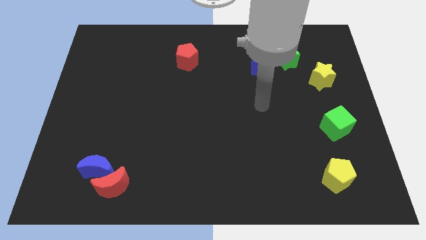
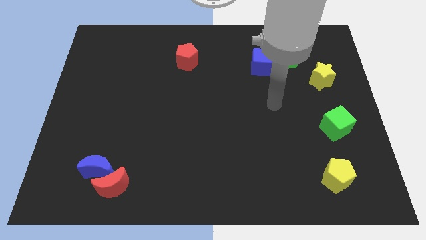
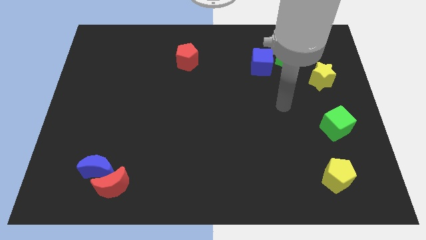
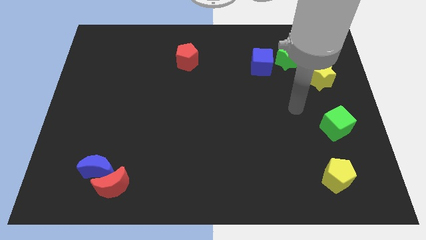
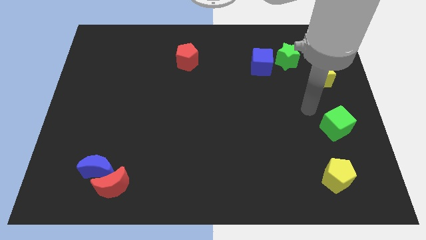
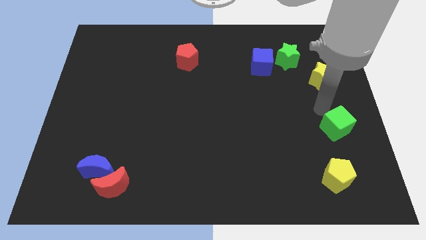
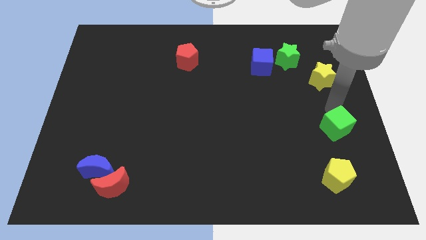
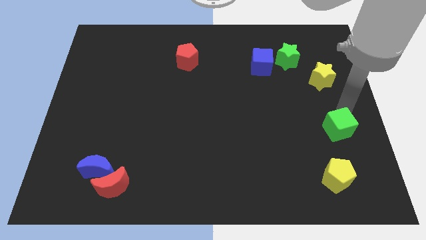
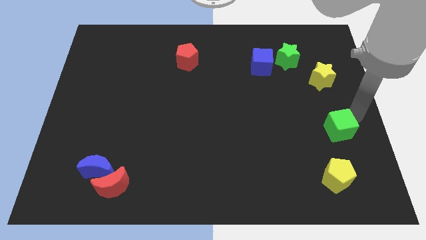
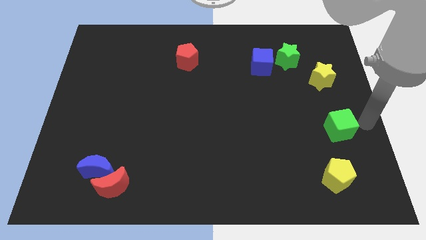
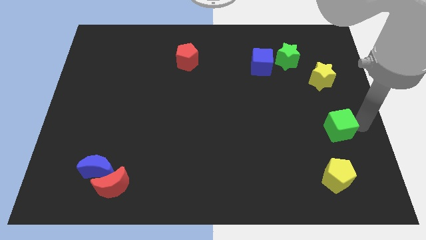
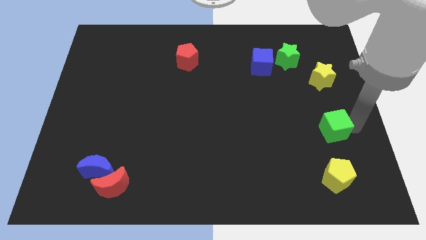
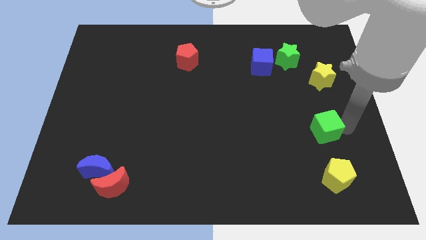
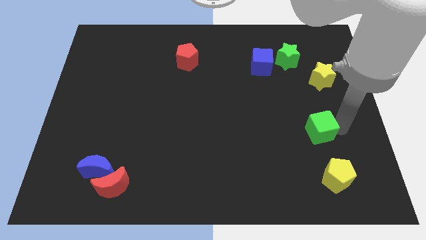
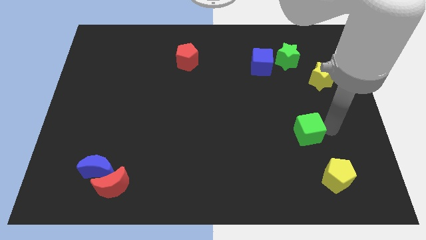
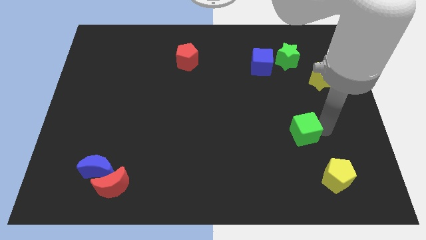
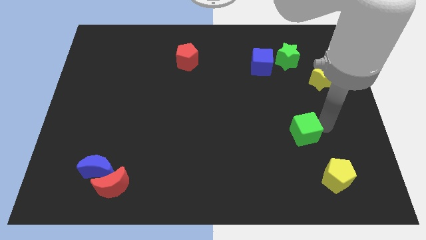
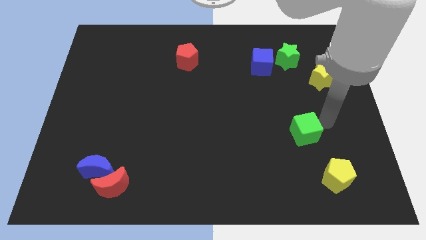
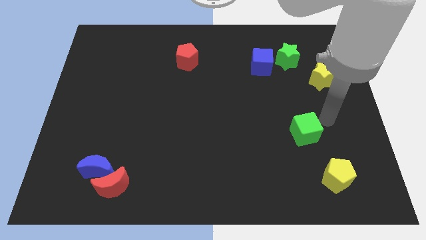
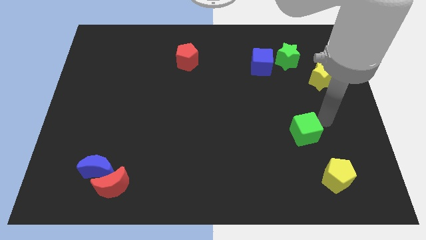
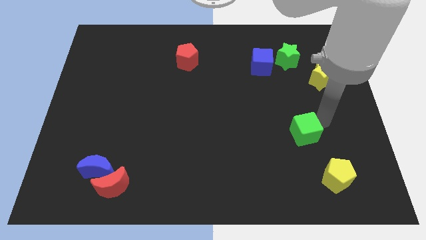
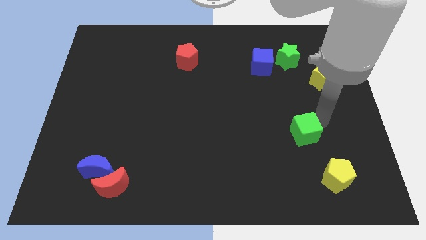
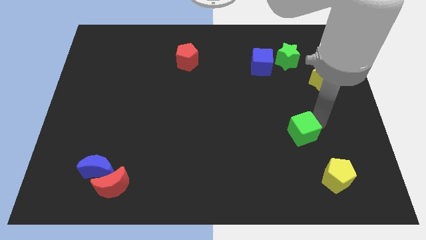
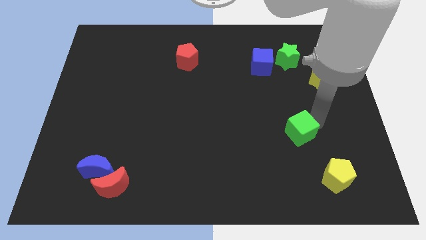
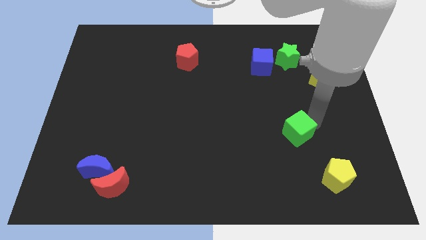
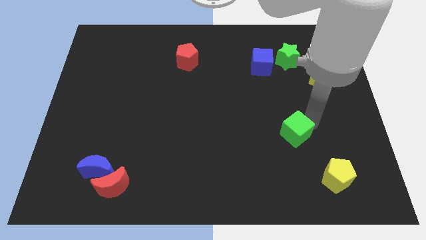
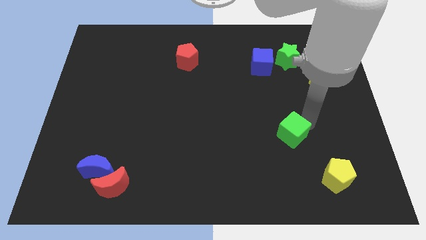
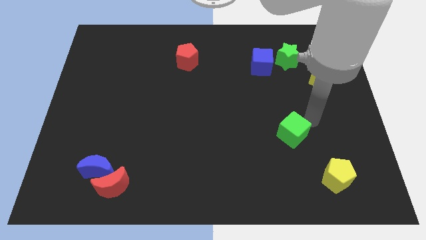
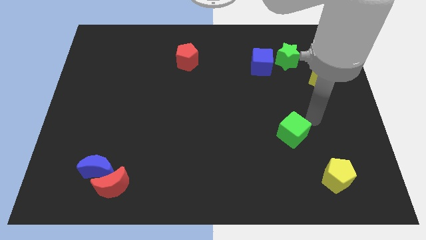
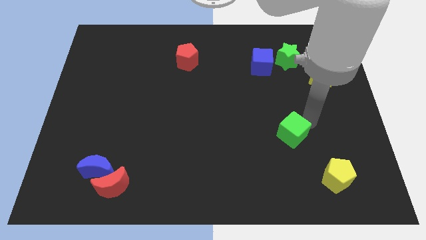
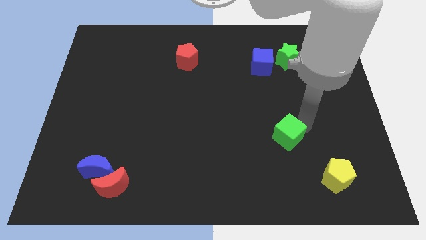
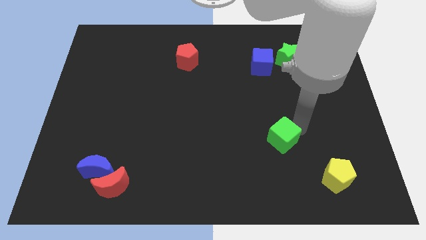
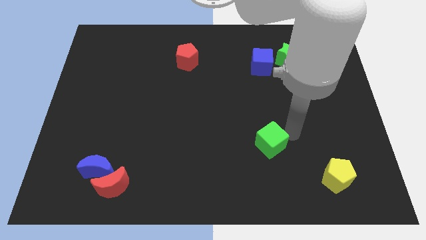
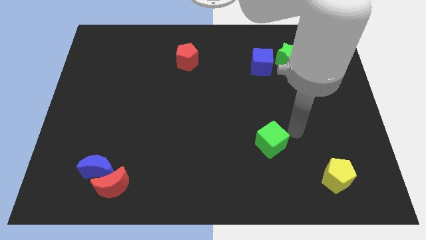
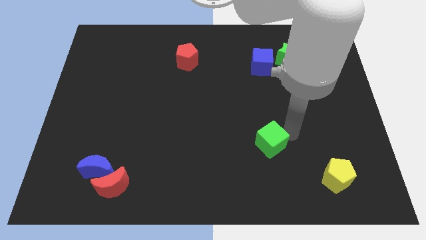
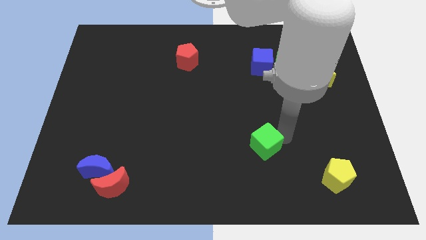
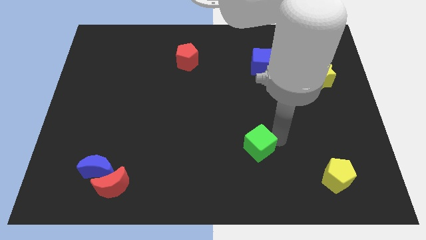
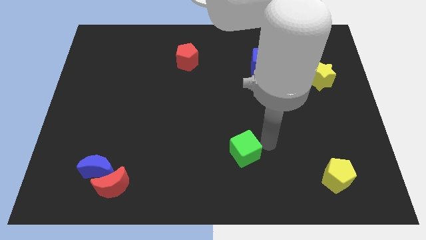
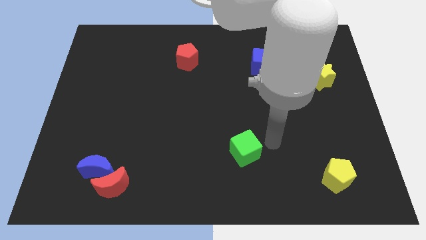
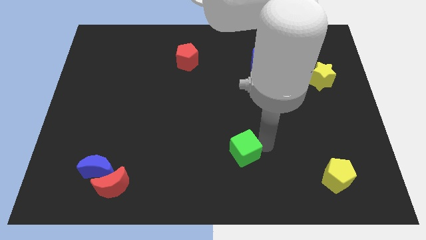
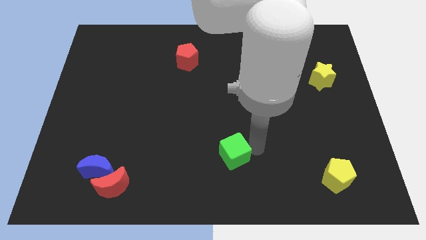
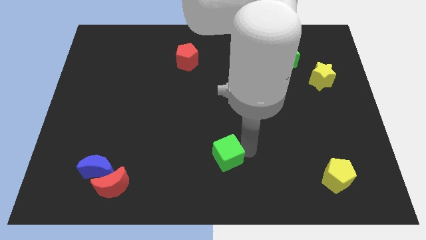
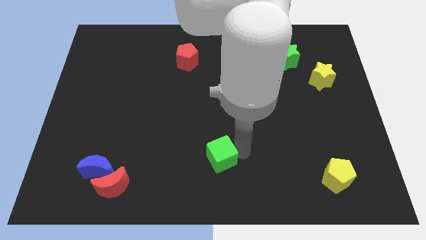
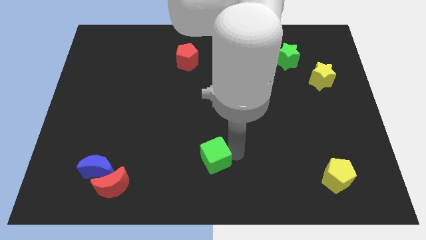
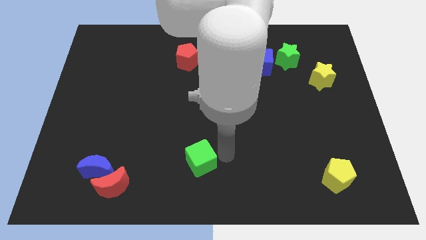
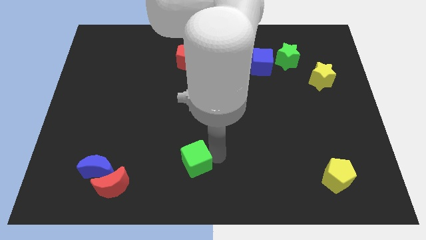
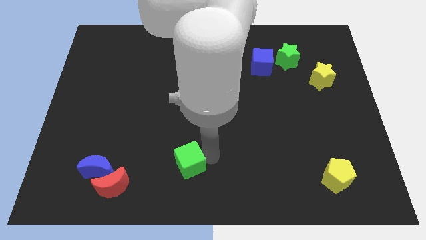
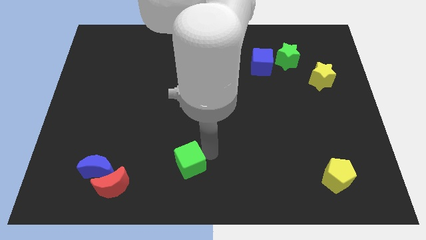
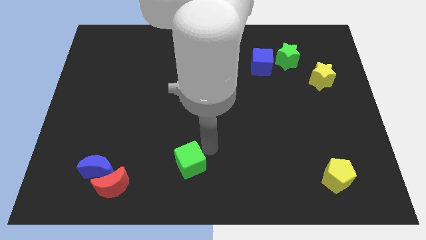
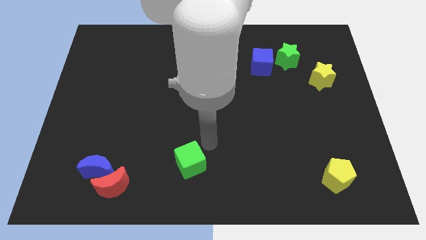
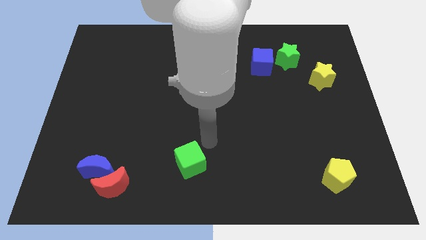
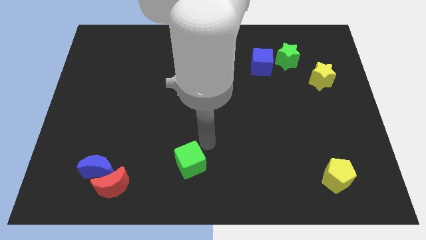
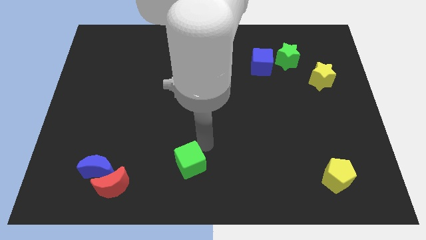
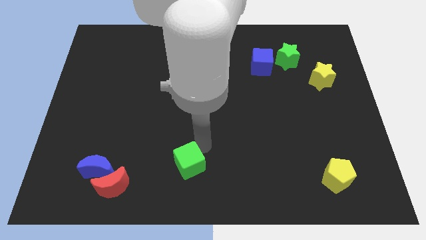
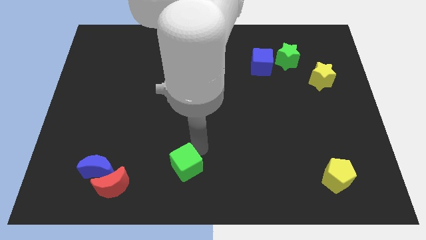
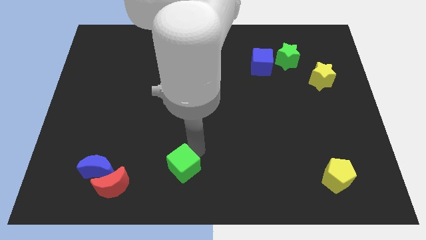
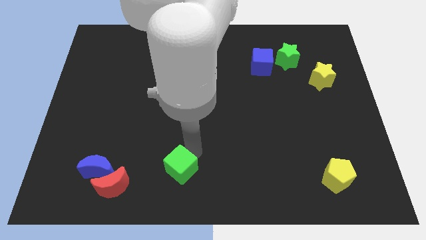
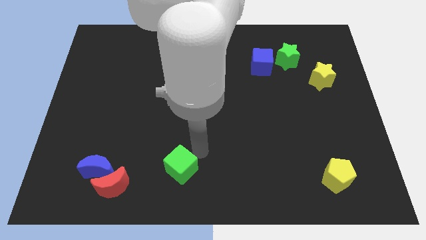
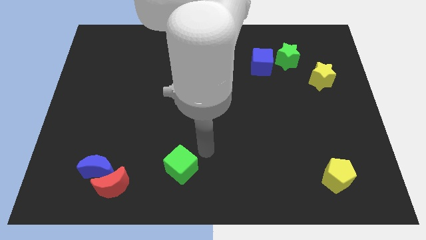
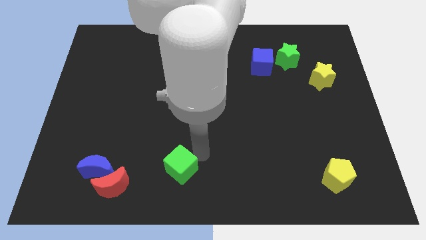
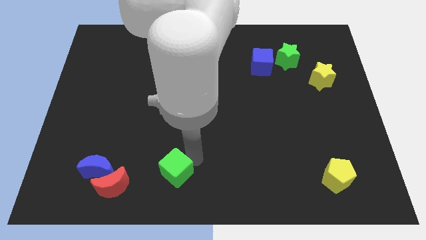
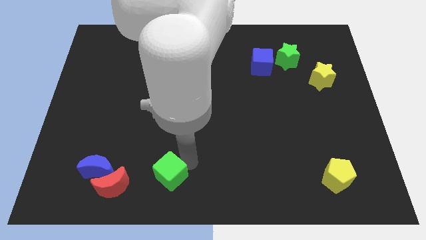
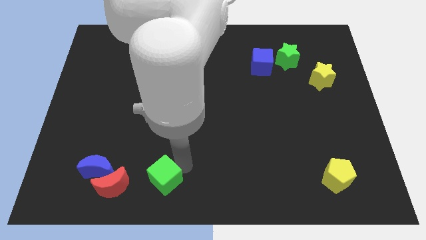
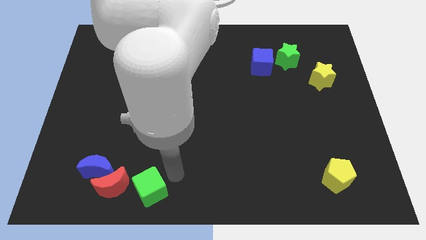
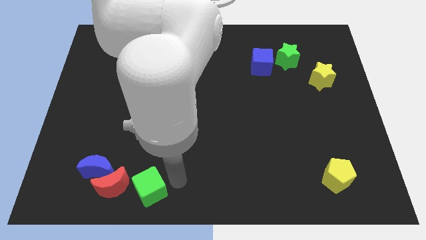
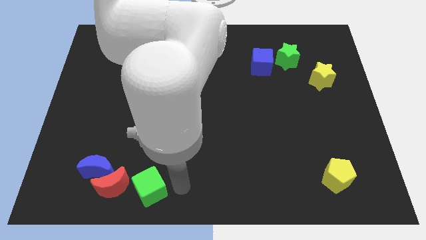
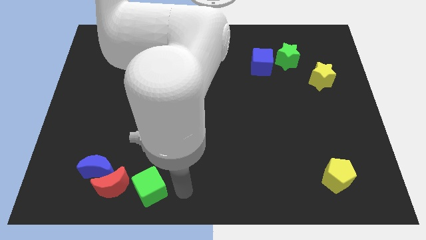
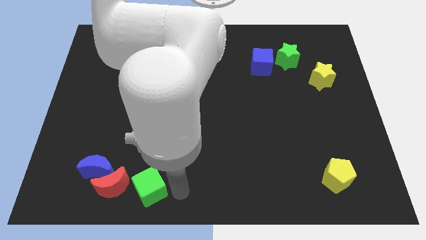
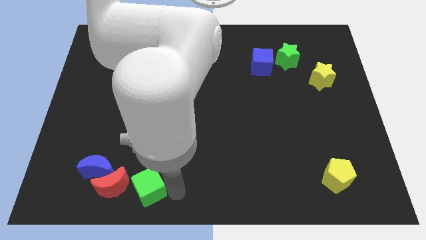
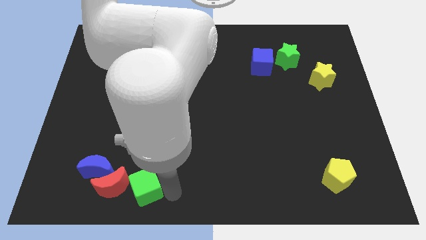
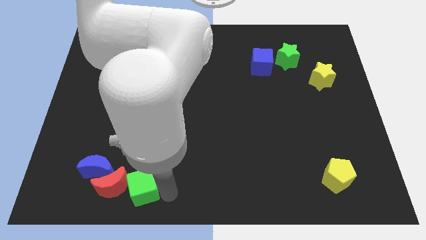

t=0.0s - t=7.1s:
move the green cube towards the red moon
